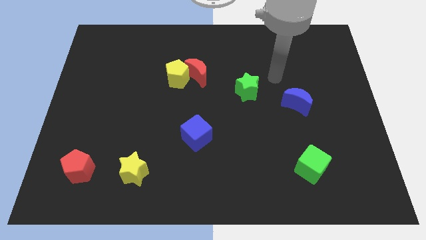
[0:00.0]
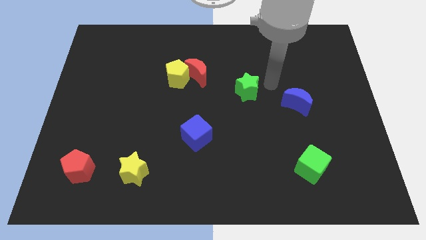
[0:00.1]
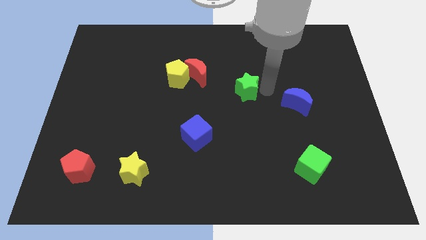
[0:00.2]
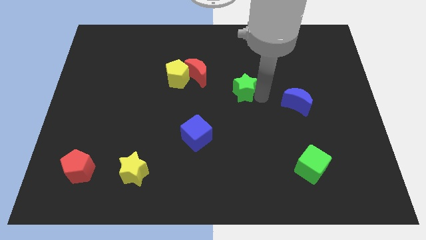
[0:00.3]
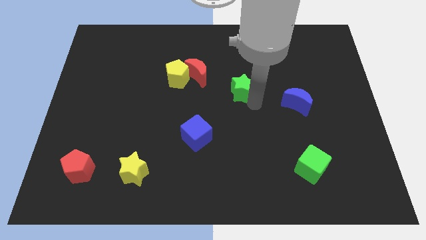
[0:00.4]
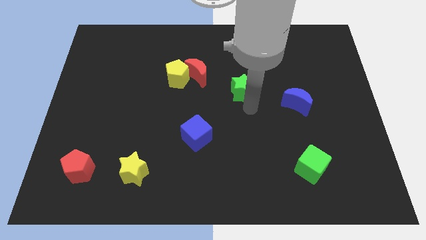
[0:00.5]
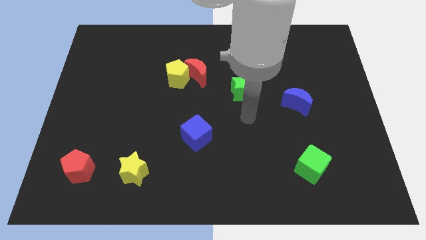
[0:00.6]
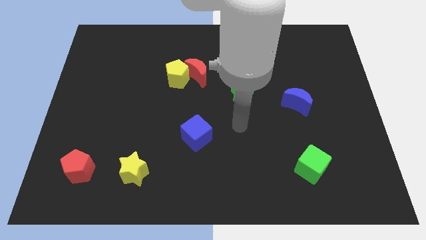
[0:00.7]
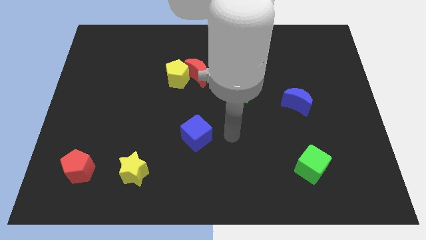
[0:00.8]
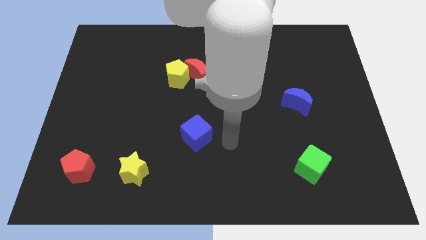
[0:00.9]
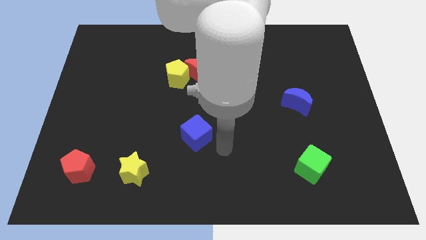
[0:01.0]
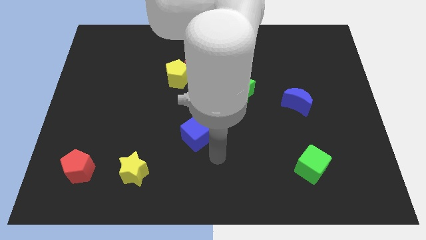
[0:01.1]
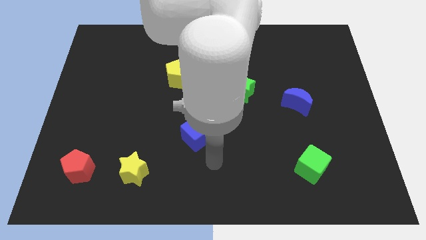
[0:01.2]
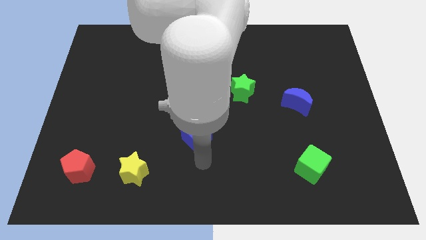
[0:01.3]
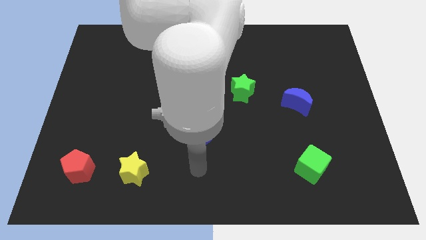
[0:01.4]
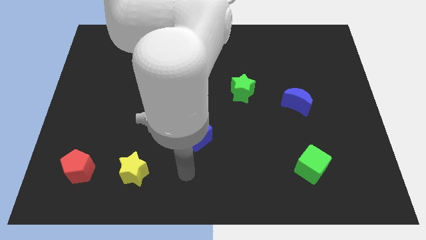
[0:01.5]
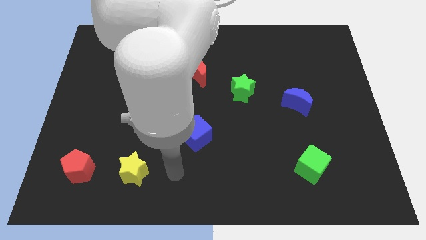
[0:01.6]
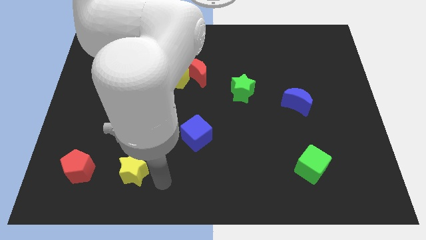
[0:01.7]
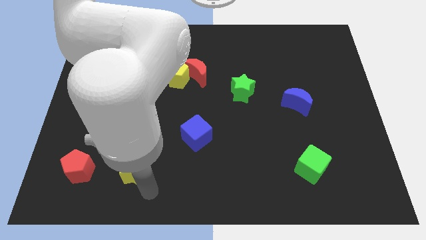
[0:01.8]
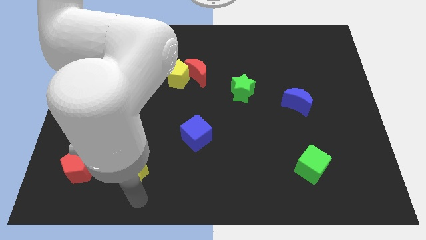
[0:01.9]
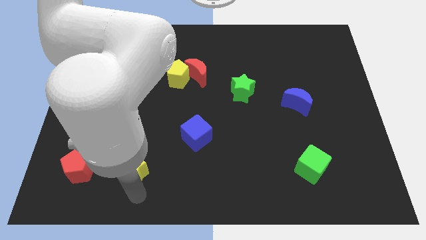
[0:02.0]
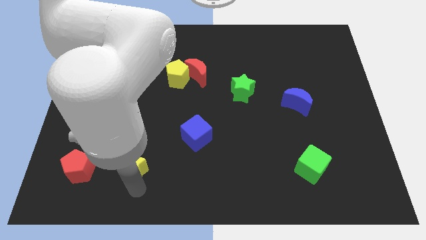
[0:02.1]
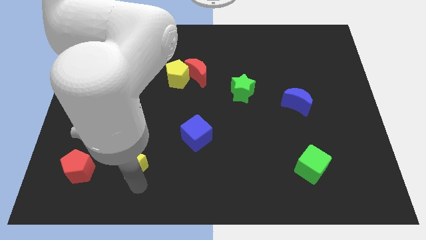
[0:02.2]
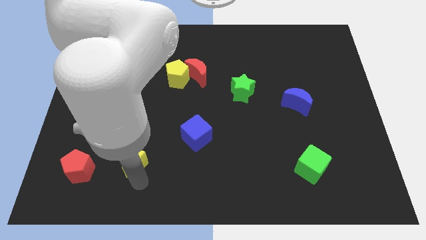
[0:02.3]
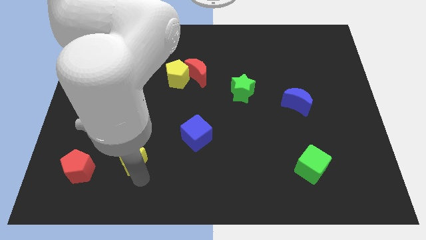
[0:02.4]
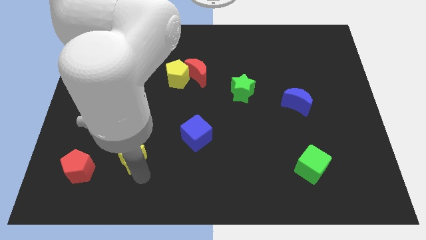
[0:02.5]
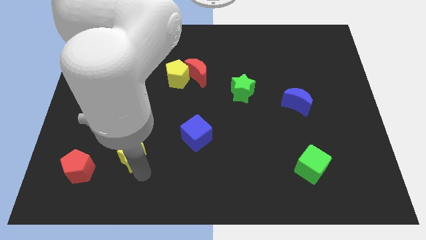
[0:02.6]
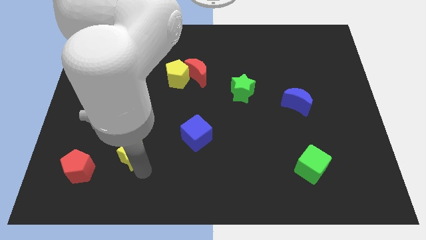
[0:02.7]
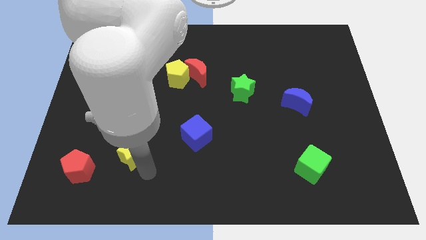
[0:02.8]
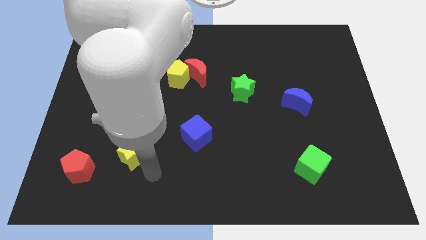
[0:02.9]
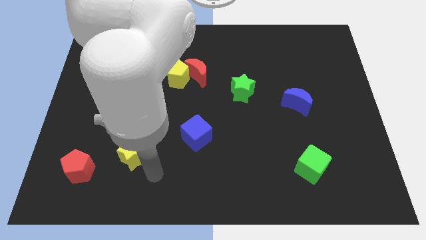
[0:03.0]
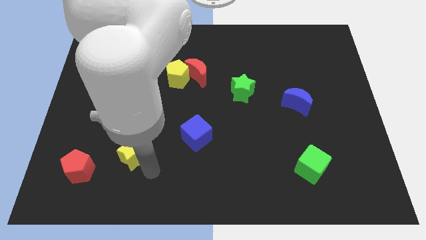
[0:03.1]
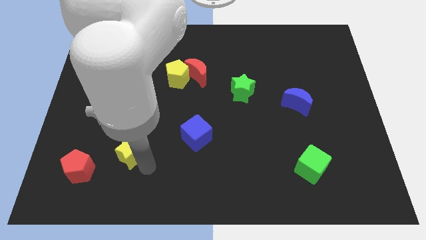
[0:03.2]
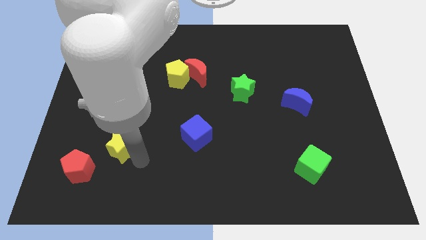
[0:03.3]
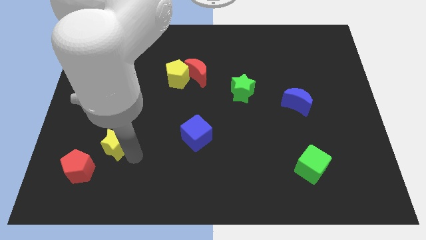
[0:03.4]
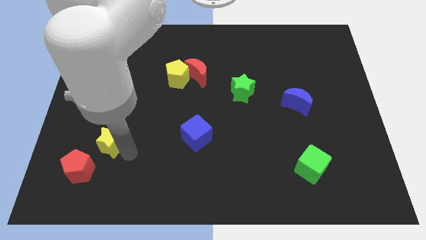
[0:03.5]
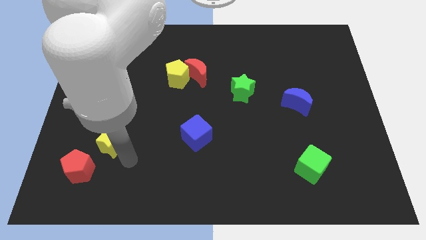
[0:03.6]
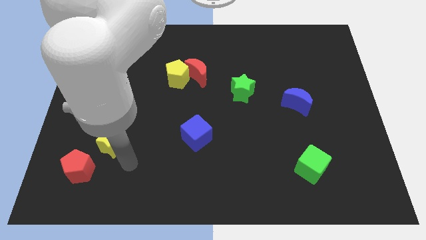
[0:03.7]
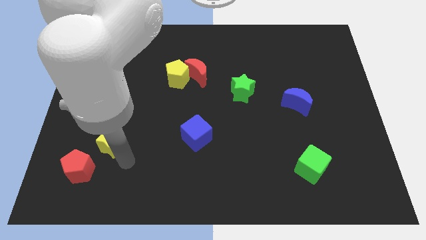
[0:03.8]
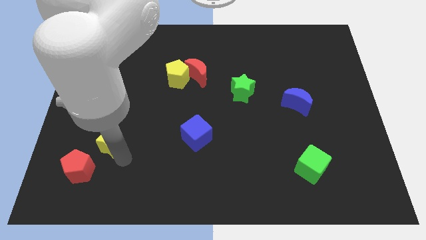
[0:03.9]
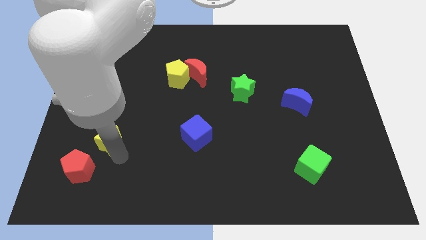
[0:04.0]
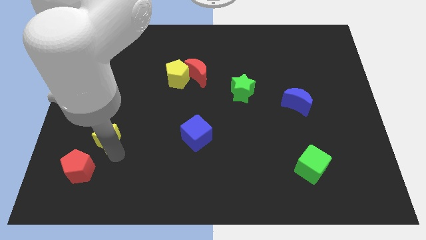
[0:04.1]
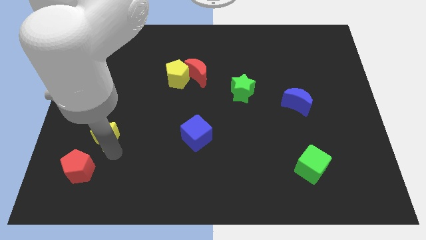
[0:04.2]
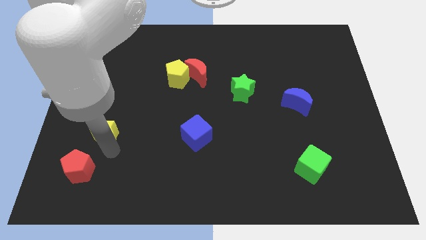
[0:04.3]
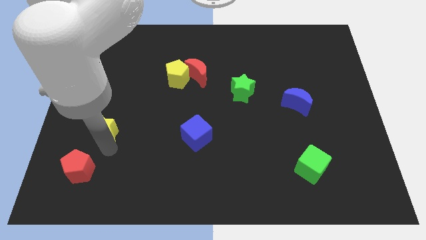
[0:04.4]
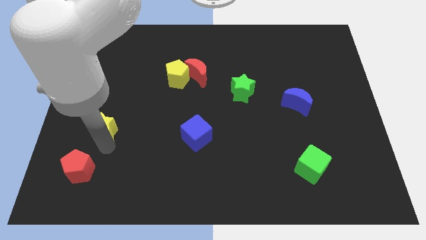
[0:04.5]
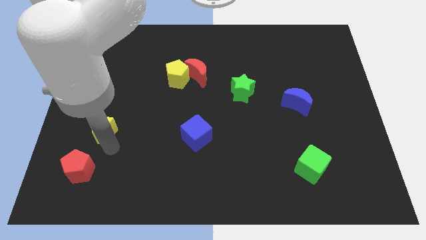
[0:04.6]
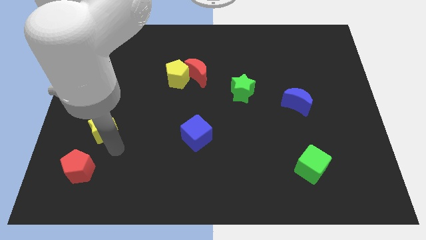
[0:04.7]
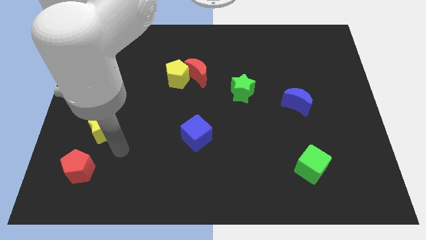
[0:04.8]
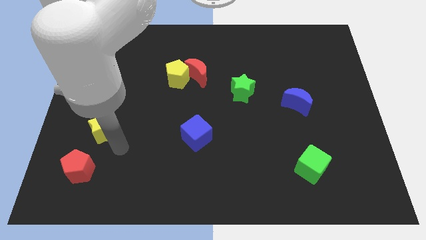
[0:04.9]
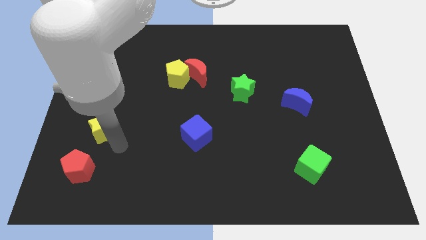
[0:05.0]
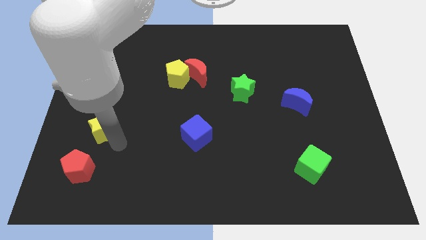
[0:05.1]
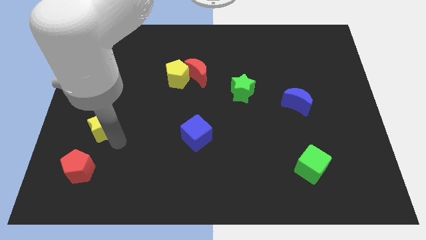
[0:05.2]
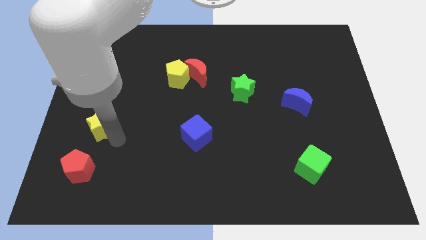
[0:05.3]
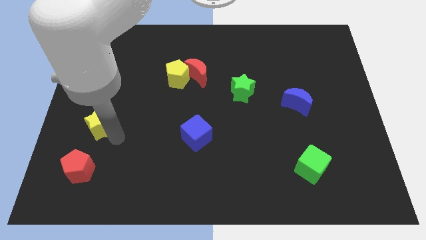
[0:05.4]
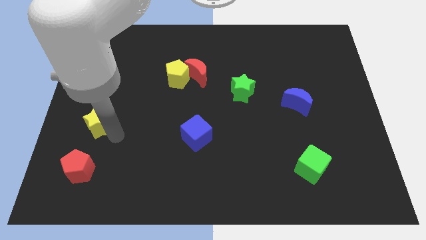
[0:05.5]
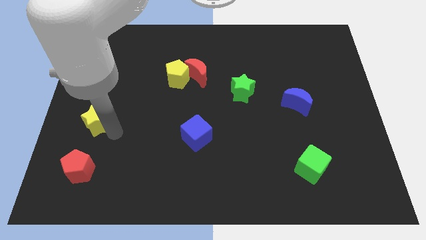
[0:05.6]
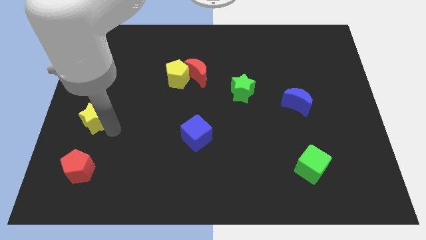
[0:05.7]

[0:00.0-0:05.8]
put the yellow star to the center left

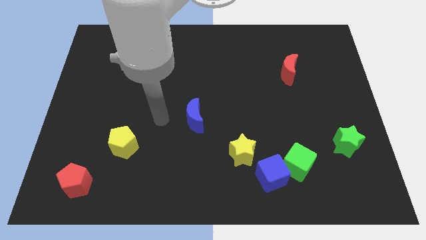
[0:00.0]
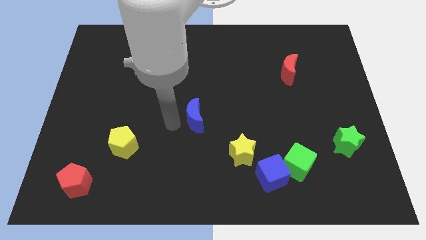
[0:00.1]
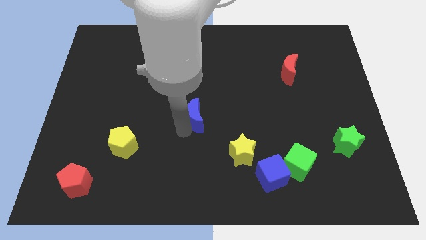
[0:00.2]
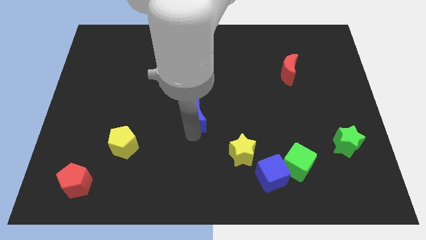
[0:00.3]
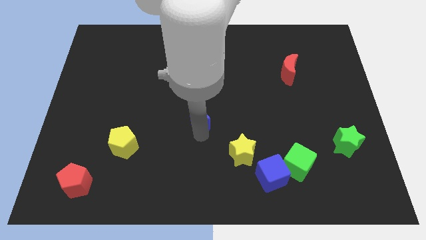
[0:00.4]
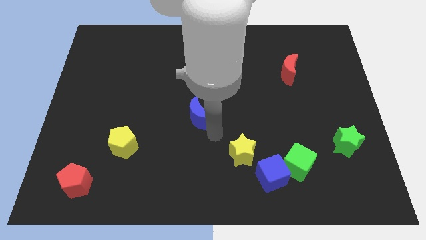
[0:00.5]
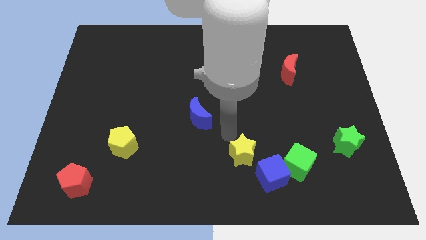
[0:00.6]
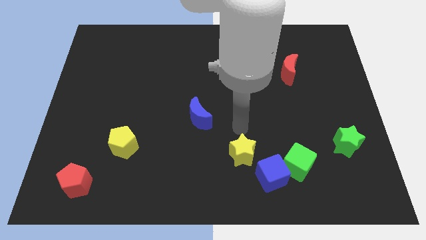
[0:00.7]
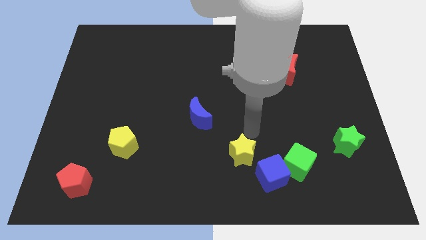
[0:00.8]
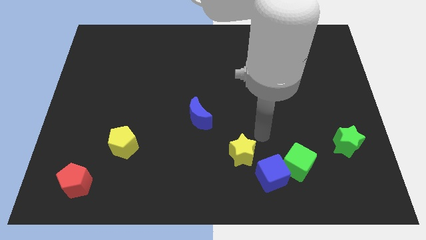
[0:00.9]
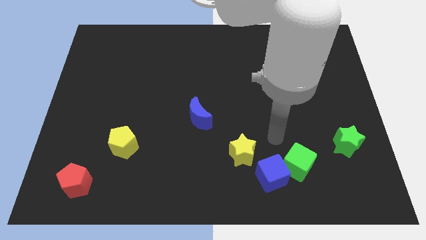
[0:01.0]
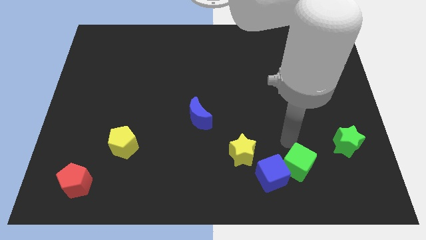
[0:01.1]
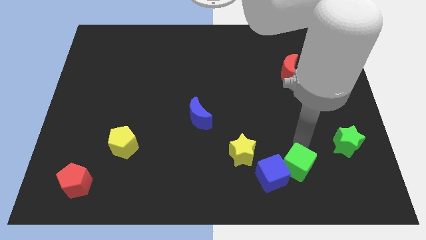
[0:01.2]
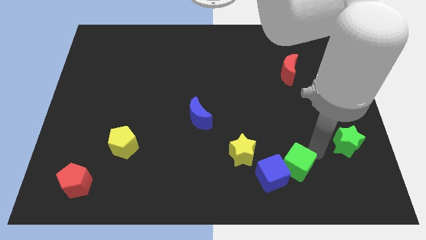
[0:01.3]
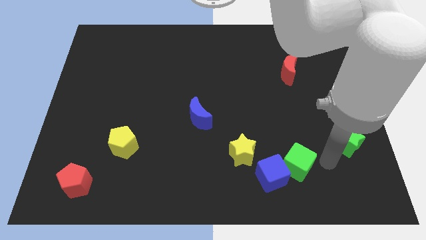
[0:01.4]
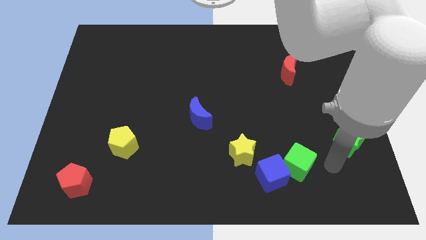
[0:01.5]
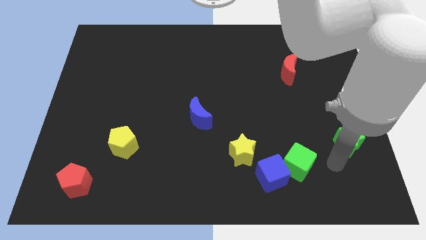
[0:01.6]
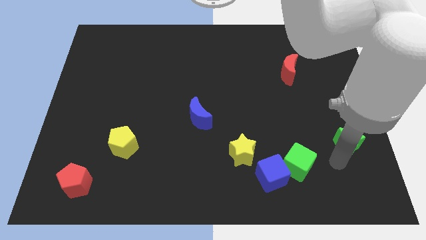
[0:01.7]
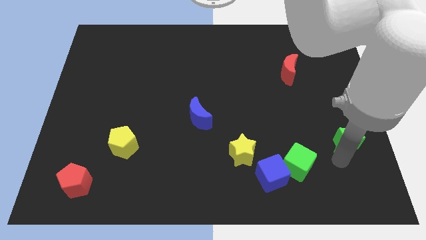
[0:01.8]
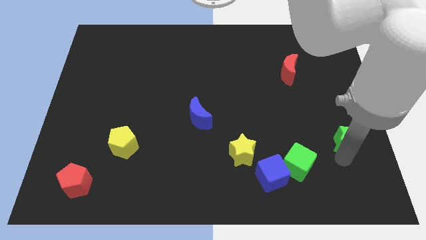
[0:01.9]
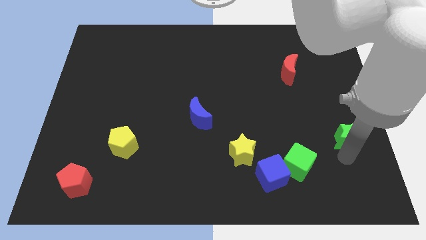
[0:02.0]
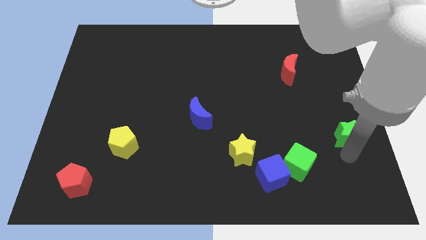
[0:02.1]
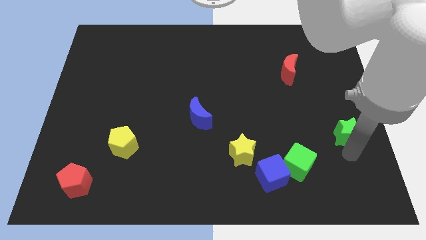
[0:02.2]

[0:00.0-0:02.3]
slide the green star to the center right
